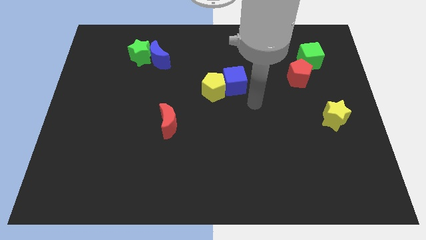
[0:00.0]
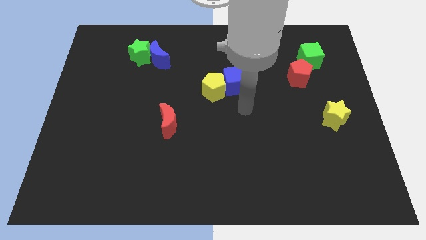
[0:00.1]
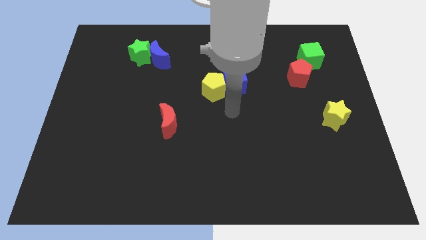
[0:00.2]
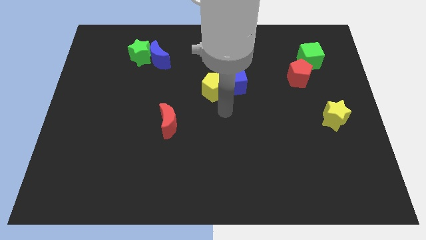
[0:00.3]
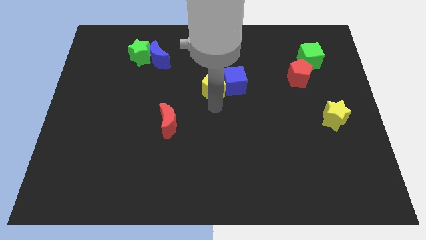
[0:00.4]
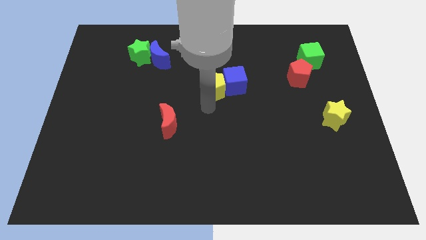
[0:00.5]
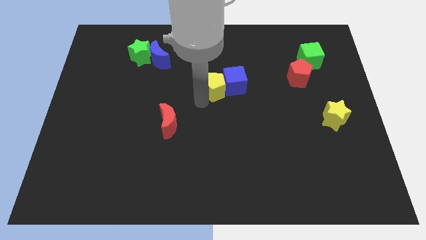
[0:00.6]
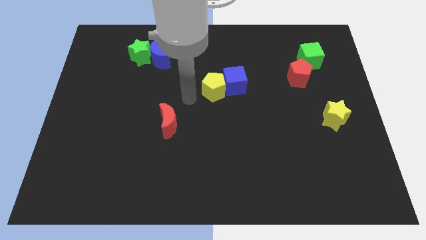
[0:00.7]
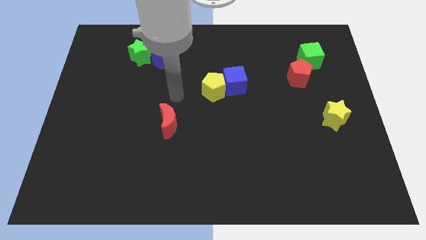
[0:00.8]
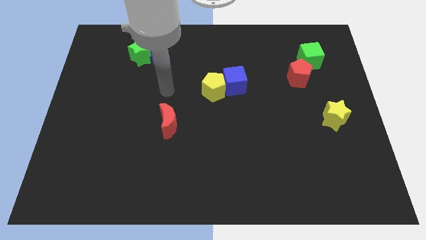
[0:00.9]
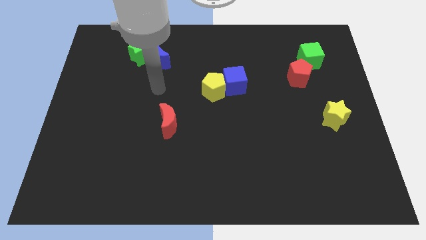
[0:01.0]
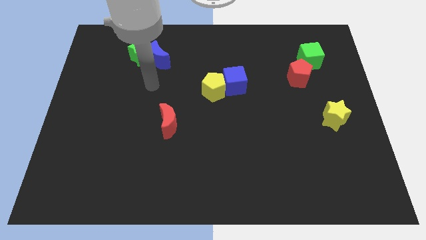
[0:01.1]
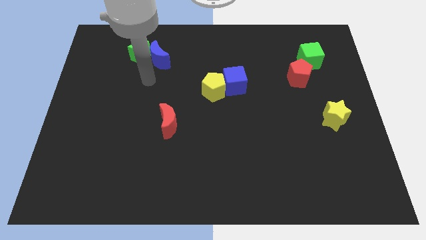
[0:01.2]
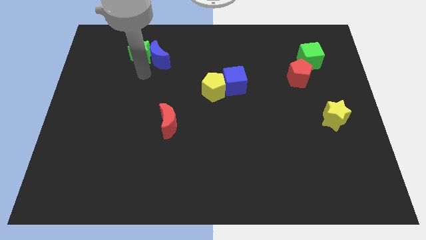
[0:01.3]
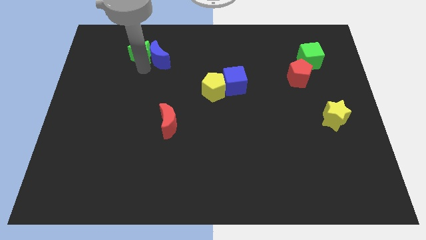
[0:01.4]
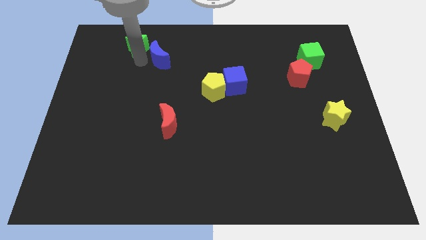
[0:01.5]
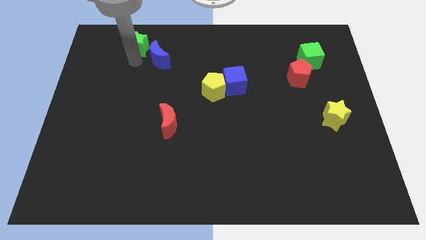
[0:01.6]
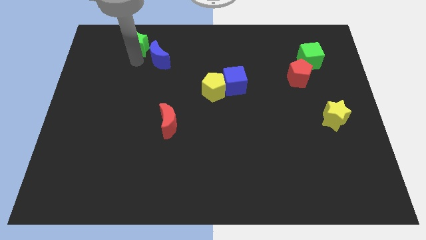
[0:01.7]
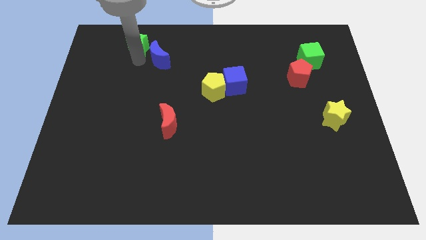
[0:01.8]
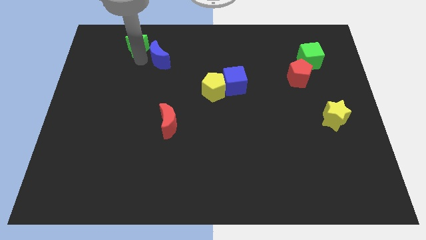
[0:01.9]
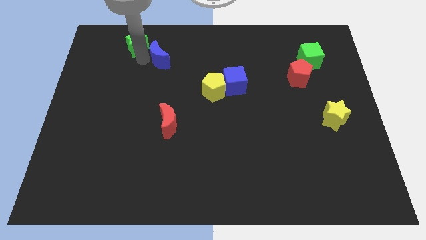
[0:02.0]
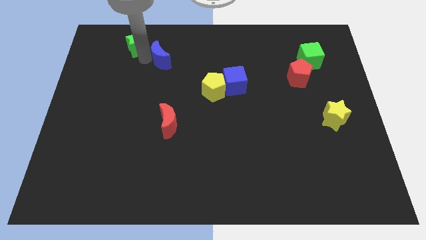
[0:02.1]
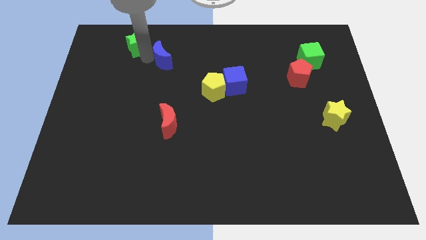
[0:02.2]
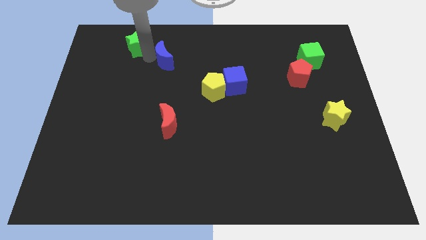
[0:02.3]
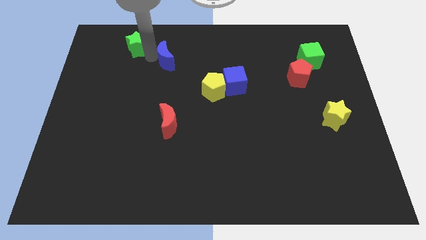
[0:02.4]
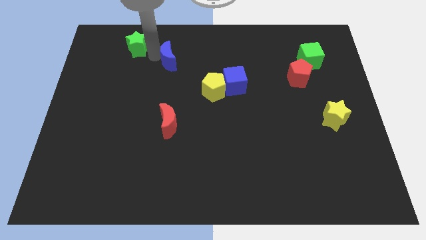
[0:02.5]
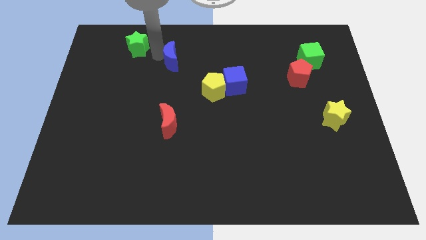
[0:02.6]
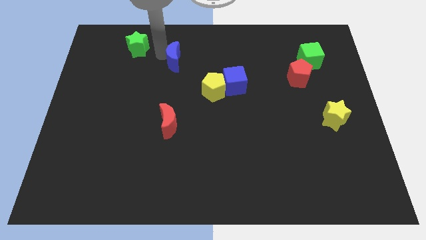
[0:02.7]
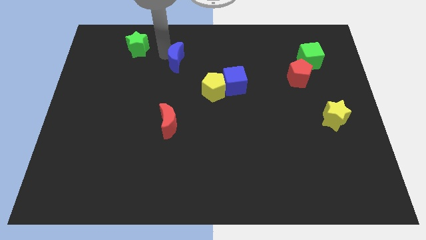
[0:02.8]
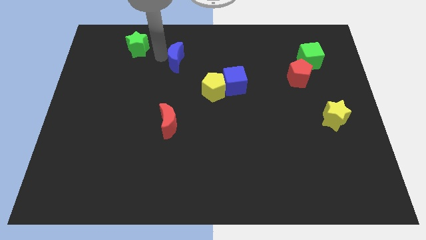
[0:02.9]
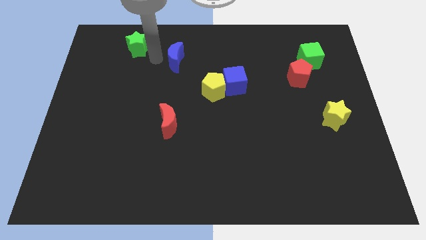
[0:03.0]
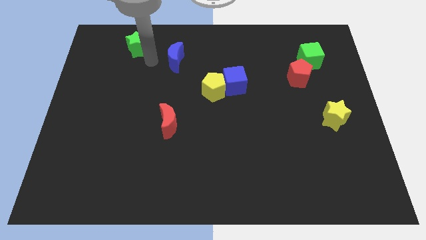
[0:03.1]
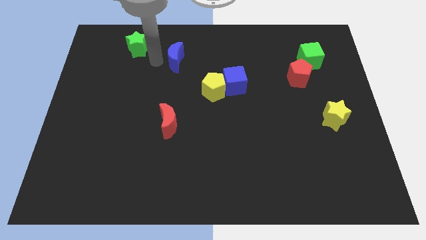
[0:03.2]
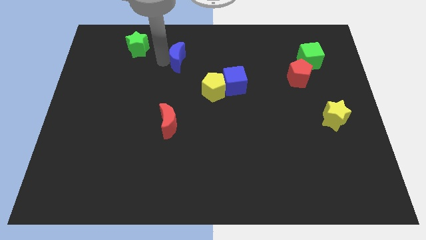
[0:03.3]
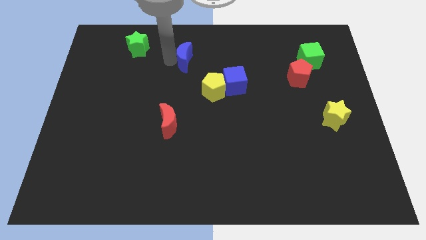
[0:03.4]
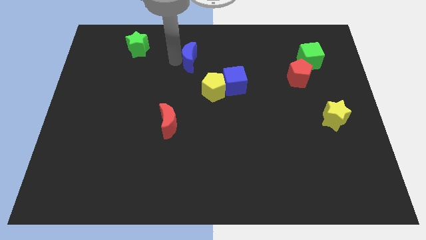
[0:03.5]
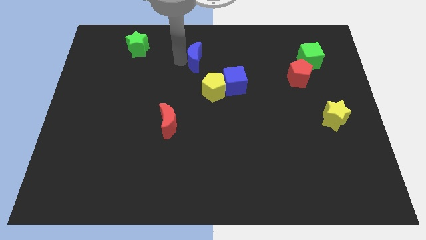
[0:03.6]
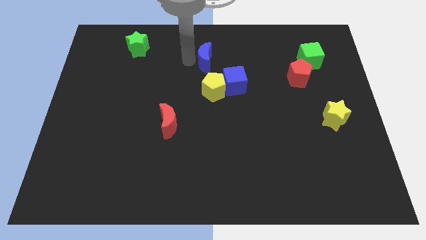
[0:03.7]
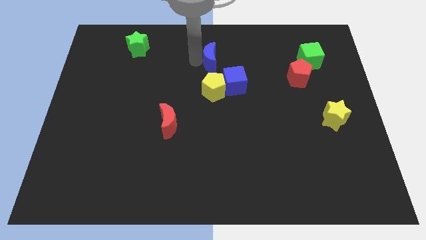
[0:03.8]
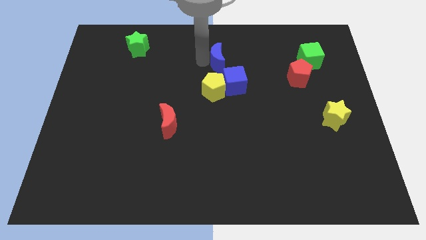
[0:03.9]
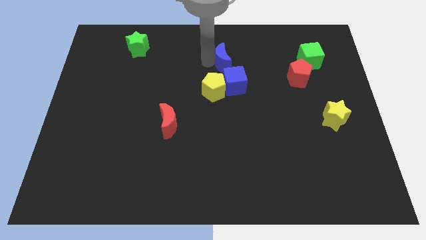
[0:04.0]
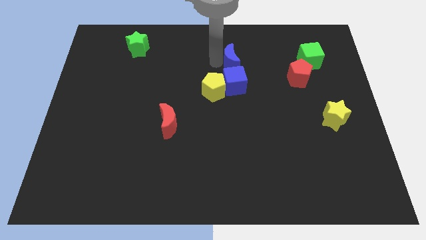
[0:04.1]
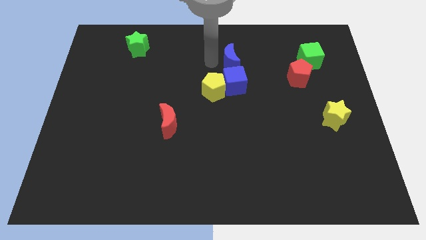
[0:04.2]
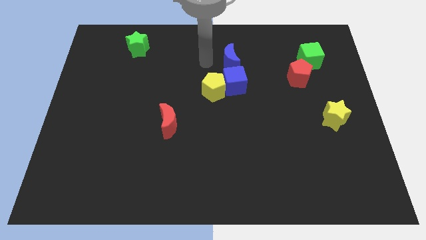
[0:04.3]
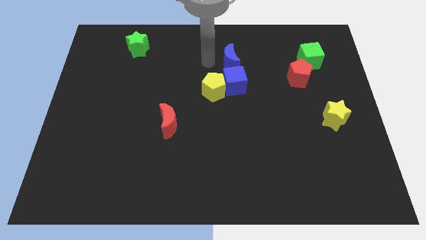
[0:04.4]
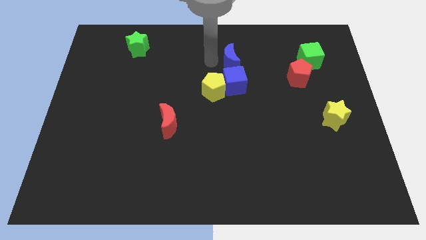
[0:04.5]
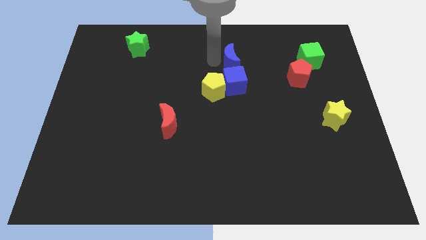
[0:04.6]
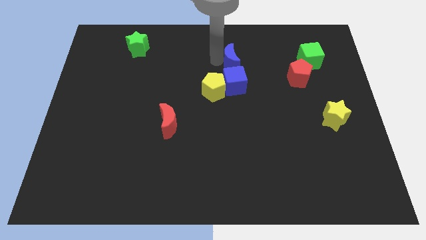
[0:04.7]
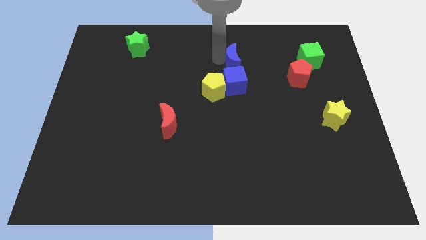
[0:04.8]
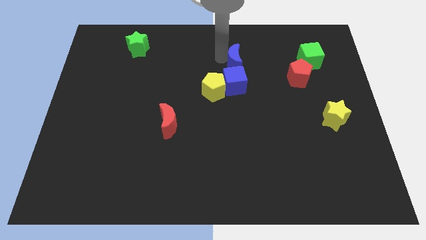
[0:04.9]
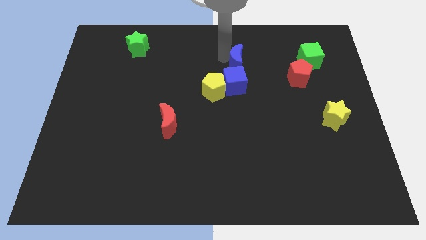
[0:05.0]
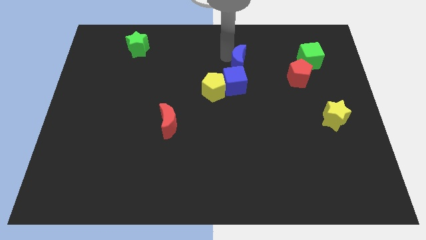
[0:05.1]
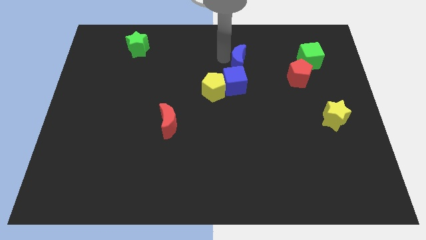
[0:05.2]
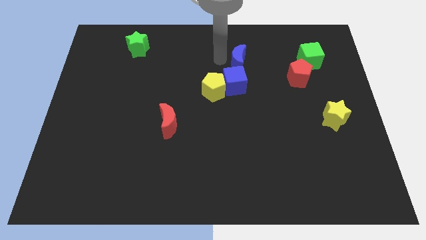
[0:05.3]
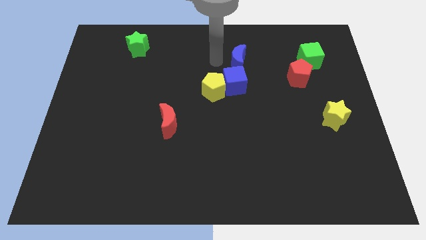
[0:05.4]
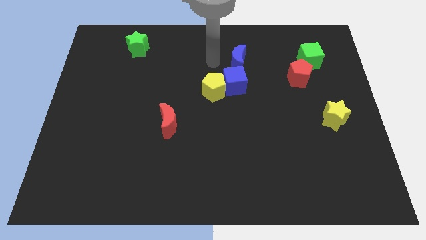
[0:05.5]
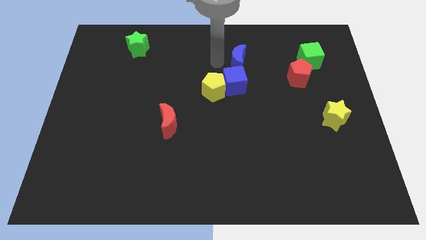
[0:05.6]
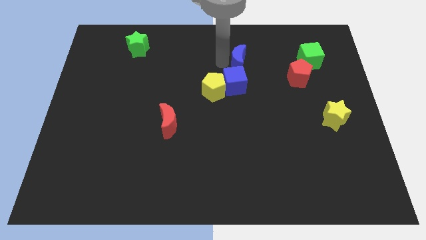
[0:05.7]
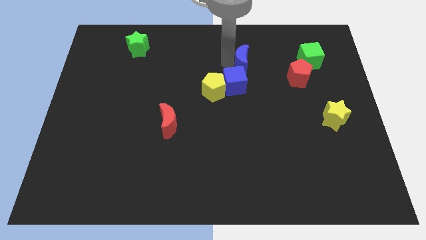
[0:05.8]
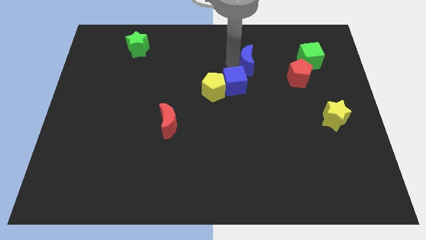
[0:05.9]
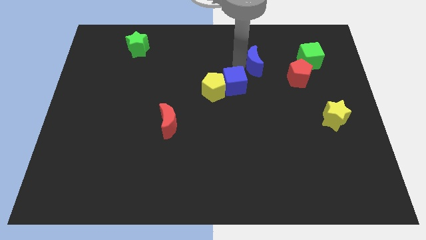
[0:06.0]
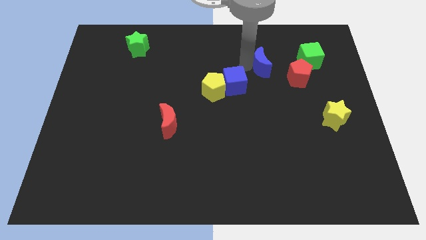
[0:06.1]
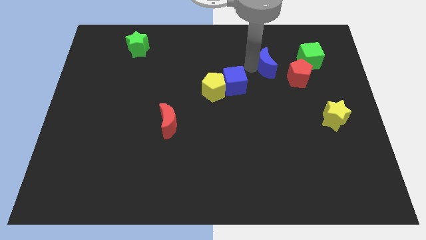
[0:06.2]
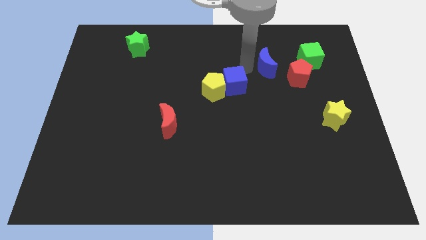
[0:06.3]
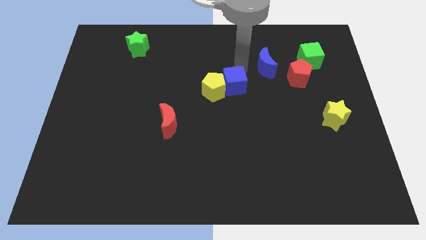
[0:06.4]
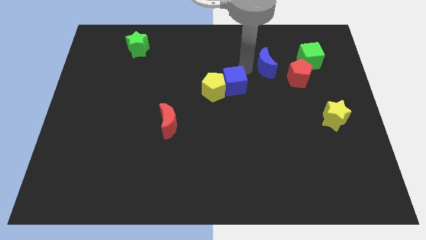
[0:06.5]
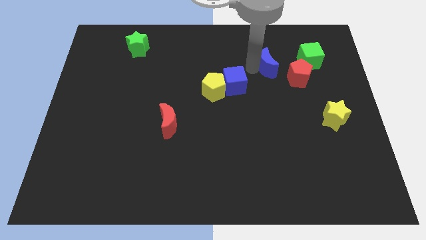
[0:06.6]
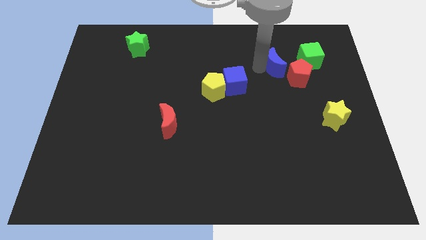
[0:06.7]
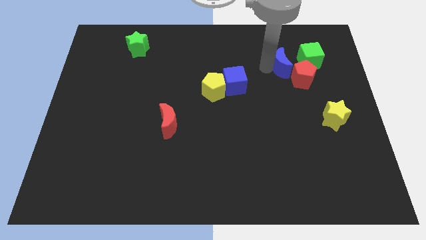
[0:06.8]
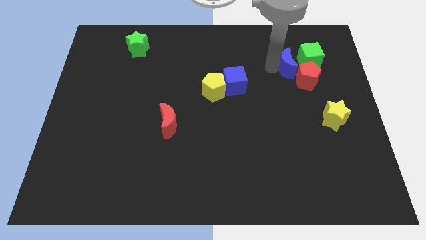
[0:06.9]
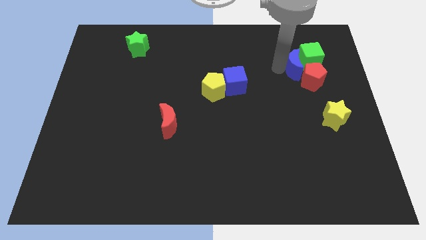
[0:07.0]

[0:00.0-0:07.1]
push the blue moon next to the green cube

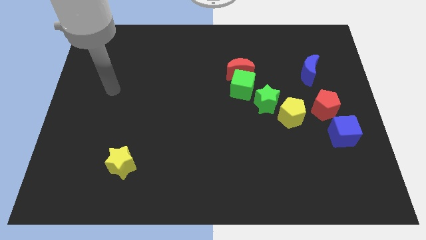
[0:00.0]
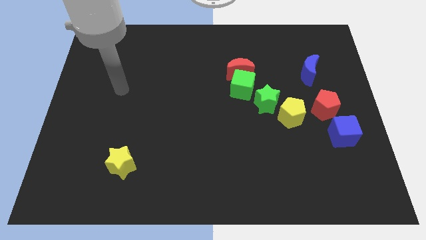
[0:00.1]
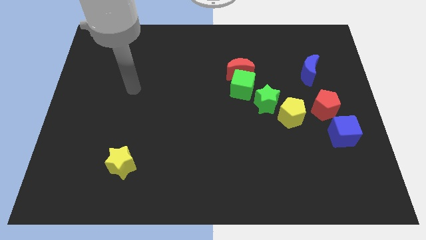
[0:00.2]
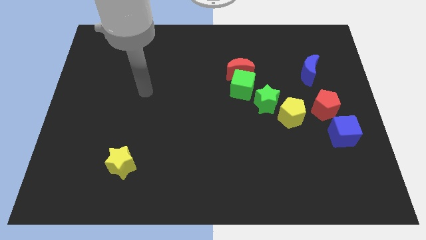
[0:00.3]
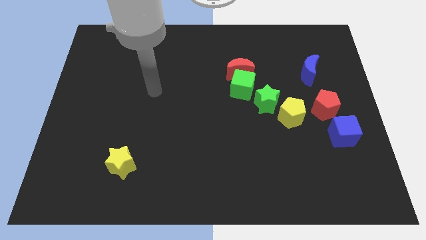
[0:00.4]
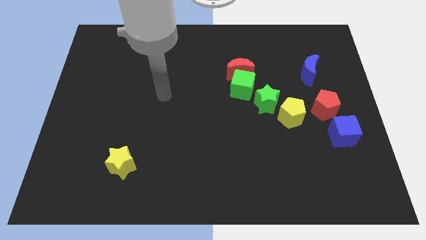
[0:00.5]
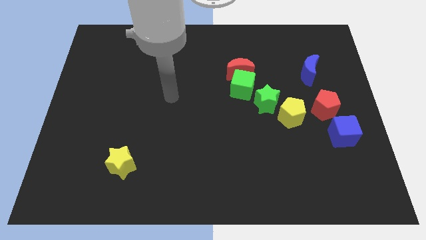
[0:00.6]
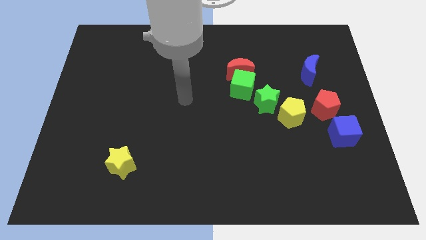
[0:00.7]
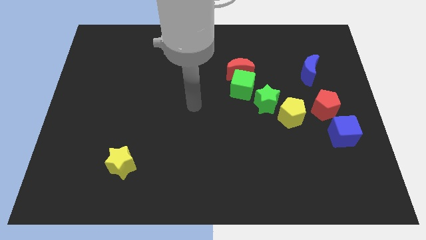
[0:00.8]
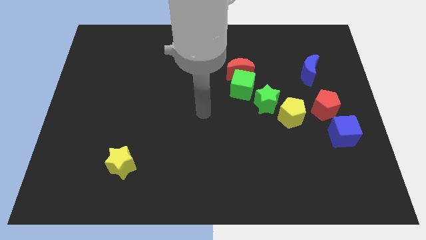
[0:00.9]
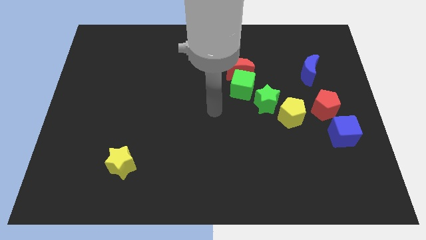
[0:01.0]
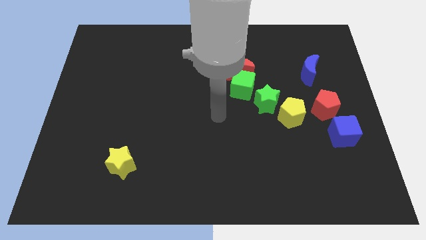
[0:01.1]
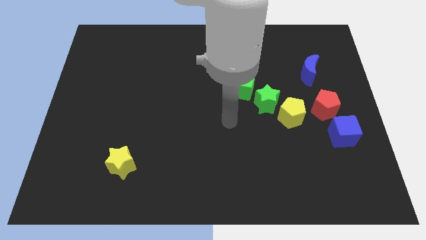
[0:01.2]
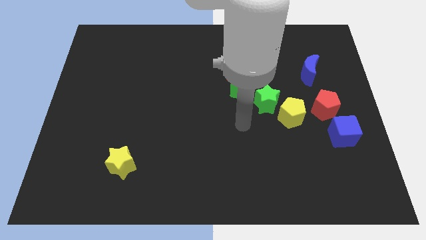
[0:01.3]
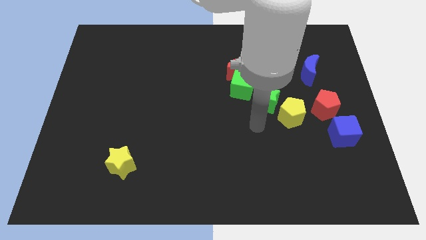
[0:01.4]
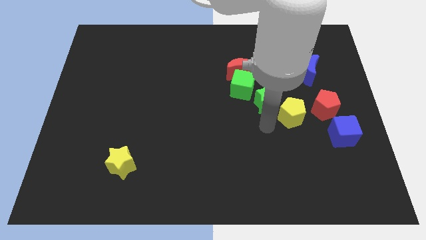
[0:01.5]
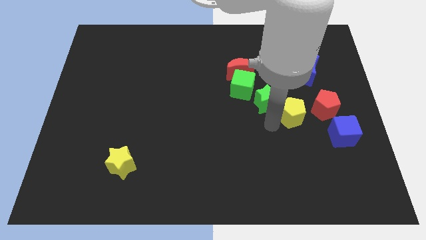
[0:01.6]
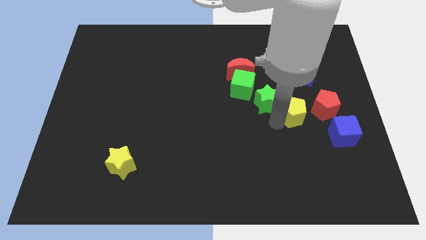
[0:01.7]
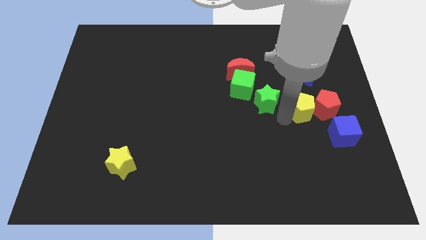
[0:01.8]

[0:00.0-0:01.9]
push the yellow pentagon to the red pentagon
